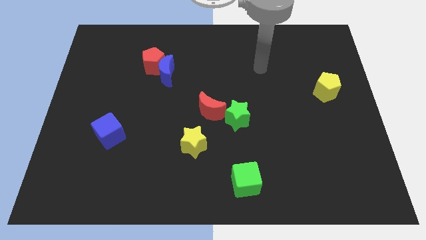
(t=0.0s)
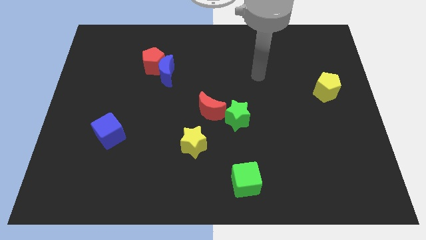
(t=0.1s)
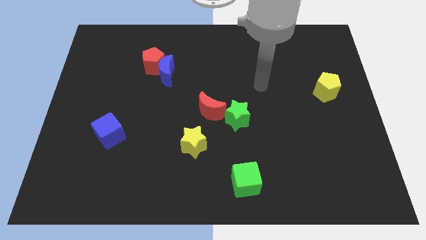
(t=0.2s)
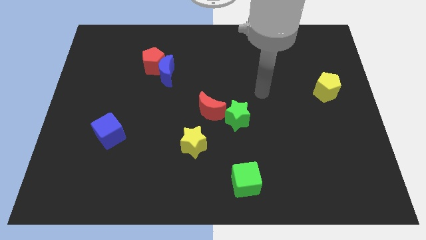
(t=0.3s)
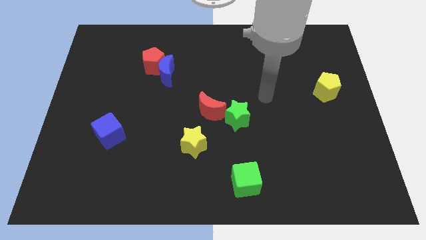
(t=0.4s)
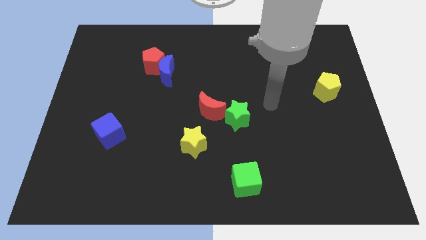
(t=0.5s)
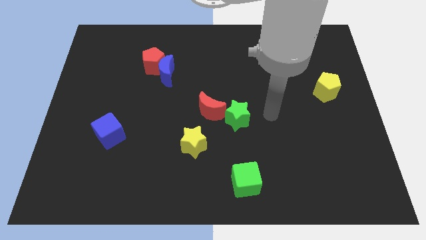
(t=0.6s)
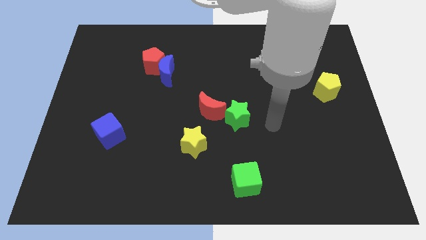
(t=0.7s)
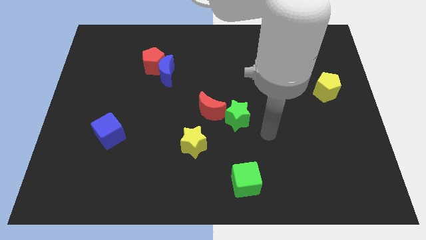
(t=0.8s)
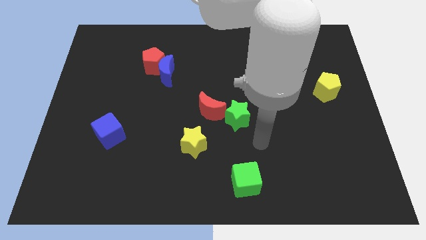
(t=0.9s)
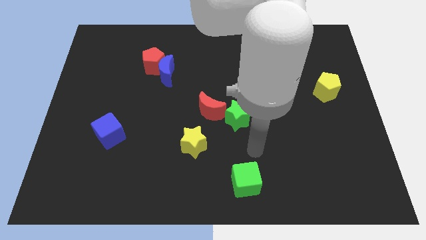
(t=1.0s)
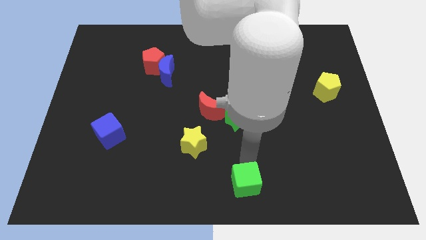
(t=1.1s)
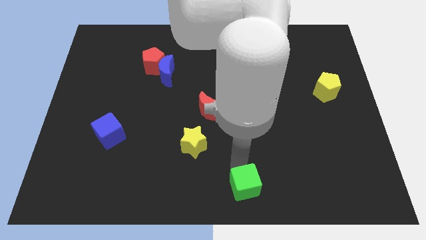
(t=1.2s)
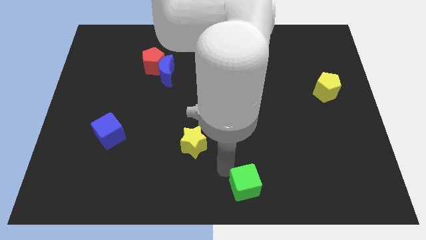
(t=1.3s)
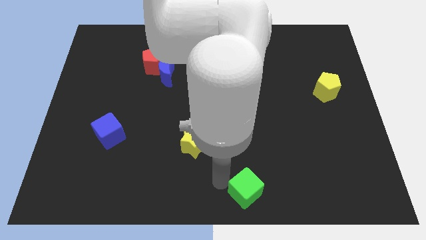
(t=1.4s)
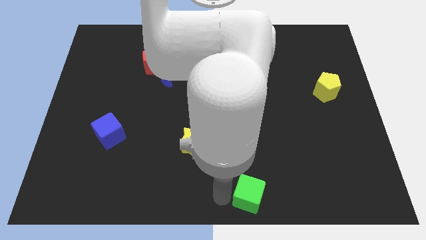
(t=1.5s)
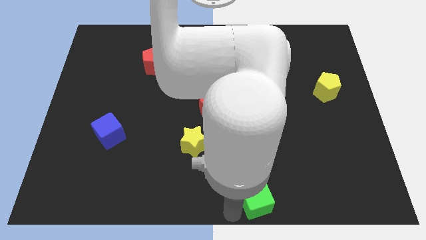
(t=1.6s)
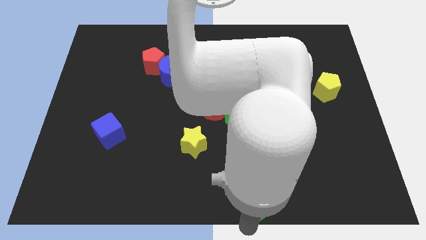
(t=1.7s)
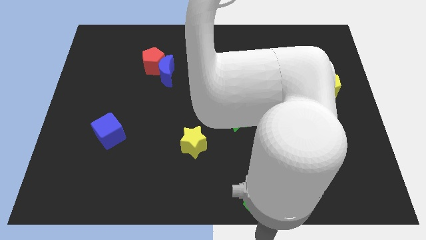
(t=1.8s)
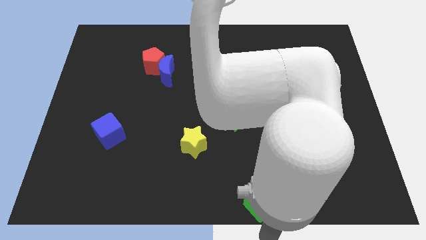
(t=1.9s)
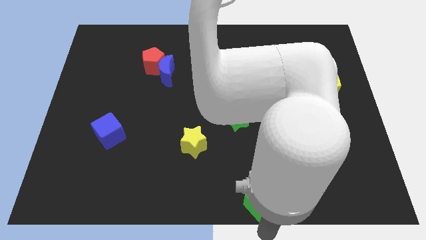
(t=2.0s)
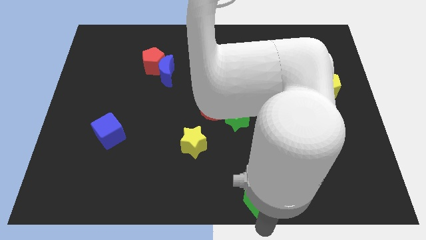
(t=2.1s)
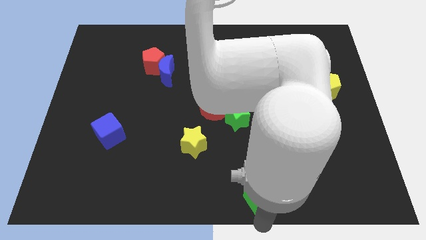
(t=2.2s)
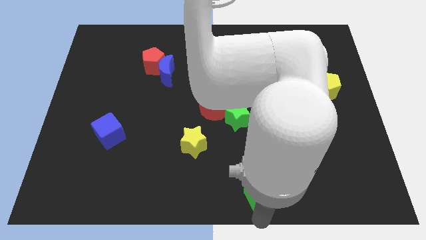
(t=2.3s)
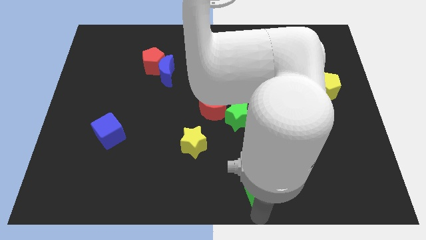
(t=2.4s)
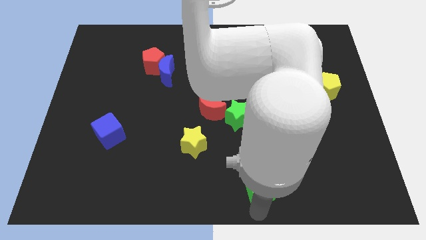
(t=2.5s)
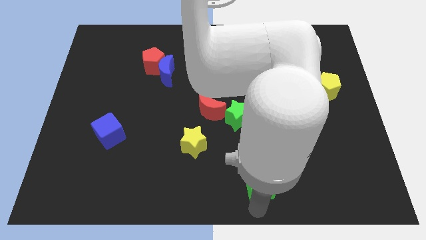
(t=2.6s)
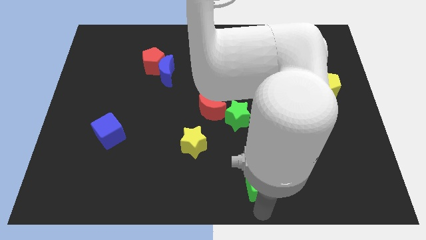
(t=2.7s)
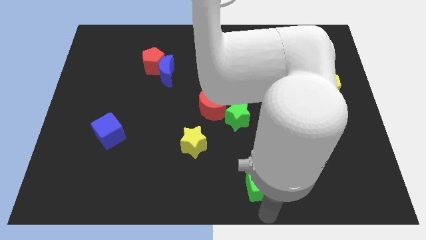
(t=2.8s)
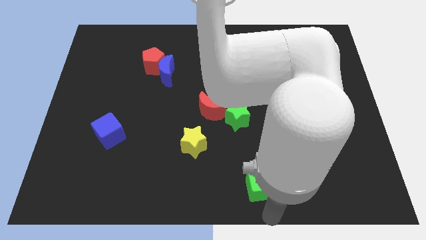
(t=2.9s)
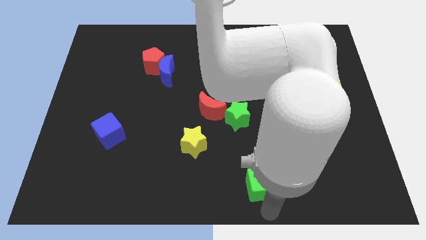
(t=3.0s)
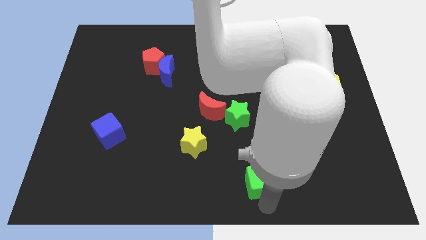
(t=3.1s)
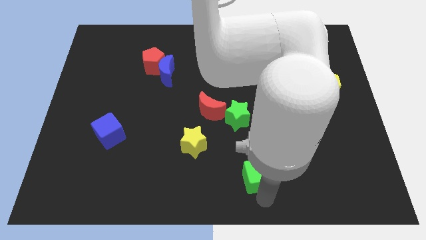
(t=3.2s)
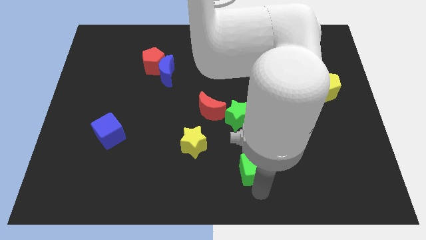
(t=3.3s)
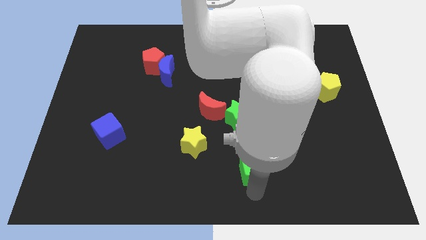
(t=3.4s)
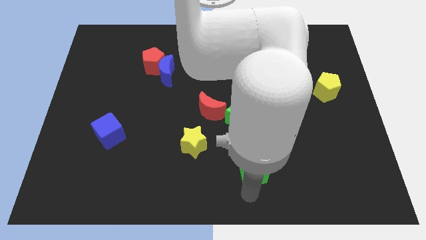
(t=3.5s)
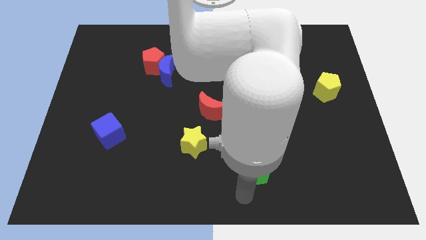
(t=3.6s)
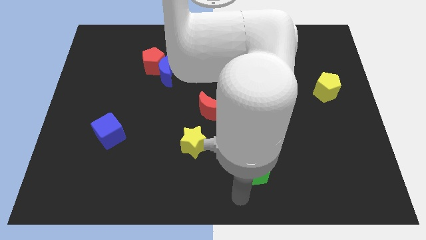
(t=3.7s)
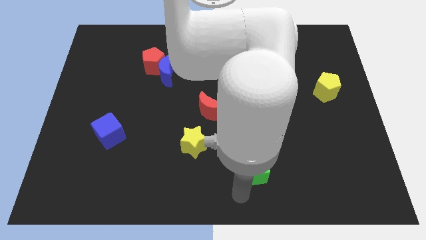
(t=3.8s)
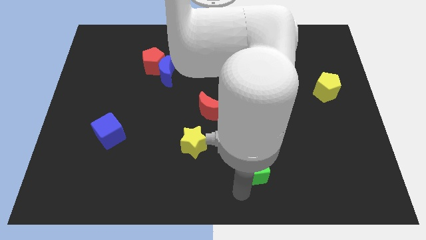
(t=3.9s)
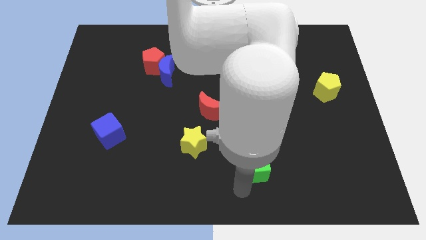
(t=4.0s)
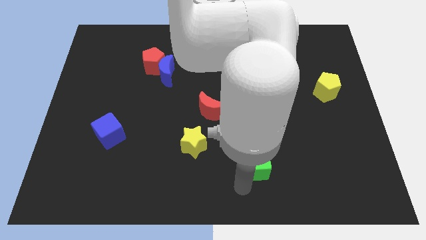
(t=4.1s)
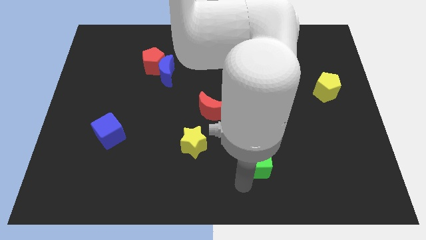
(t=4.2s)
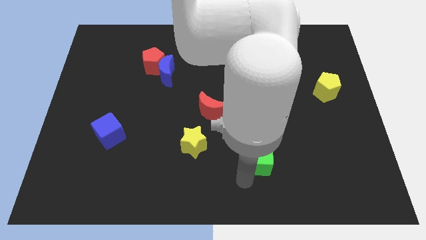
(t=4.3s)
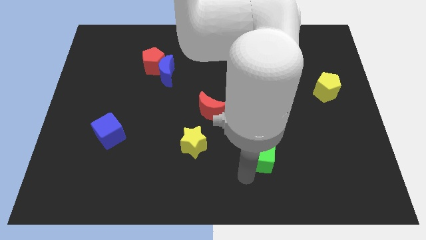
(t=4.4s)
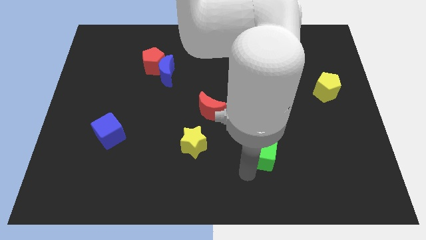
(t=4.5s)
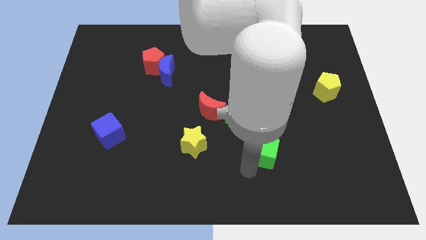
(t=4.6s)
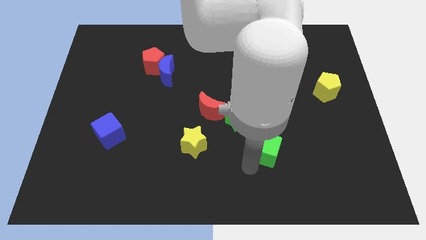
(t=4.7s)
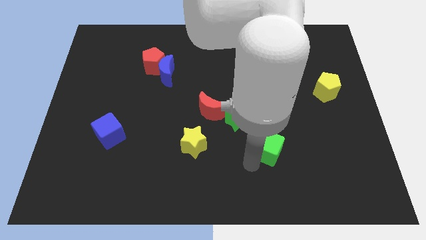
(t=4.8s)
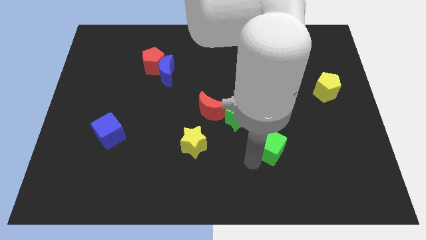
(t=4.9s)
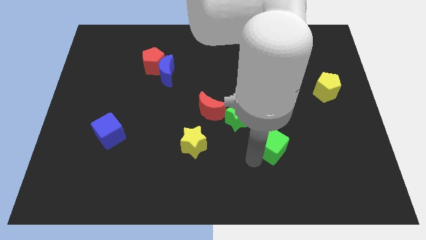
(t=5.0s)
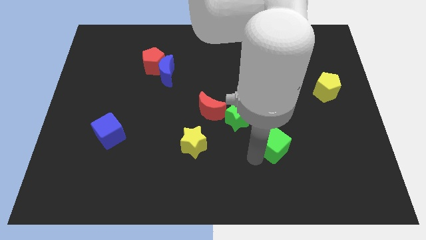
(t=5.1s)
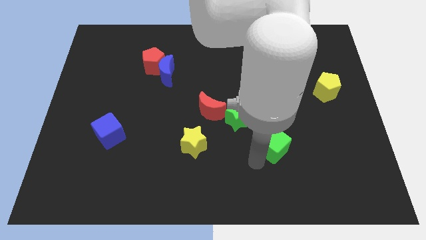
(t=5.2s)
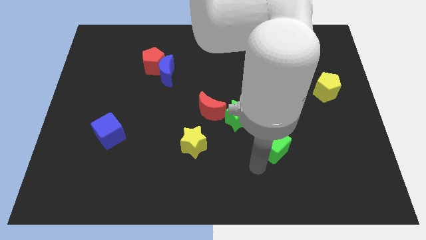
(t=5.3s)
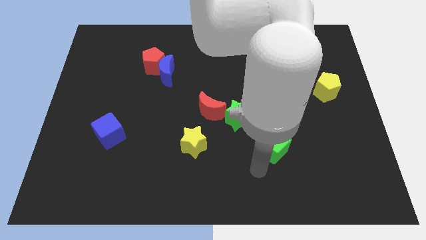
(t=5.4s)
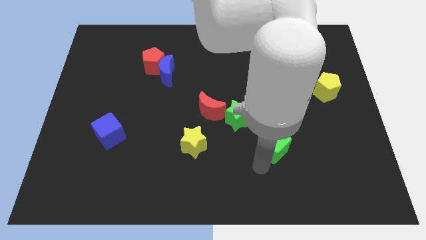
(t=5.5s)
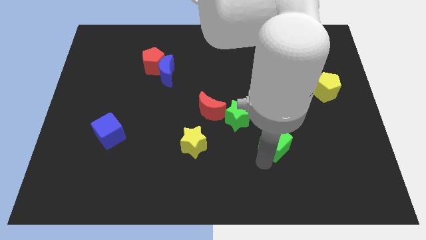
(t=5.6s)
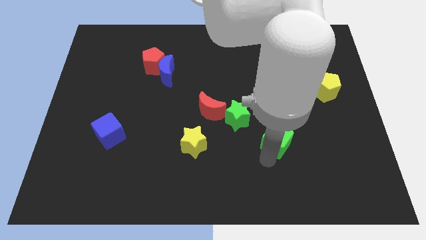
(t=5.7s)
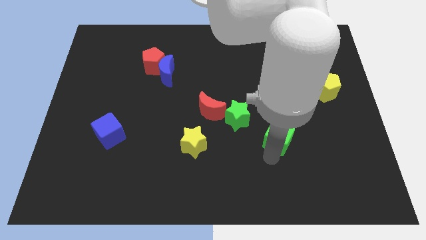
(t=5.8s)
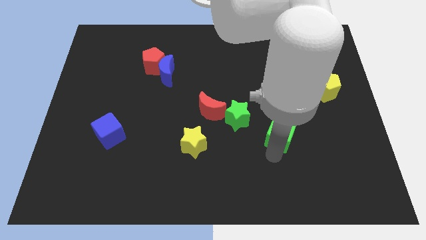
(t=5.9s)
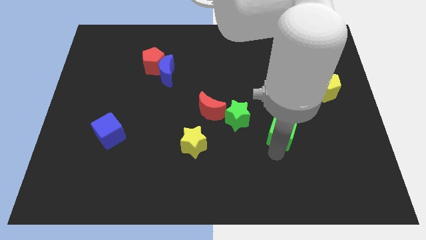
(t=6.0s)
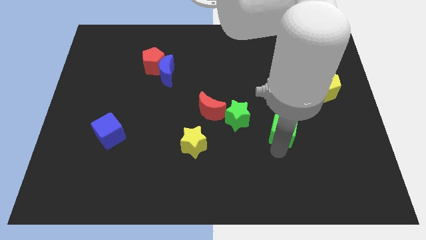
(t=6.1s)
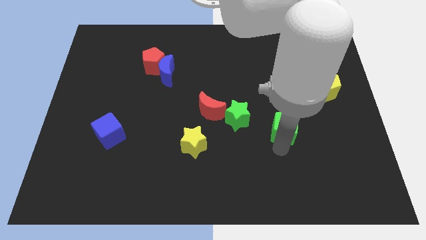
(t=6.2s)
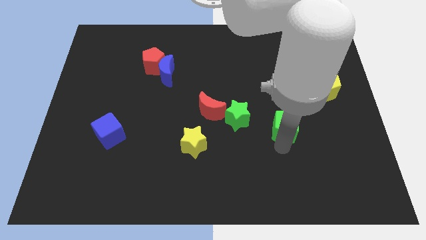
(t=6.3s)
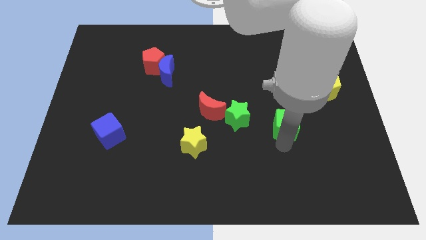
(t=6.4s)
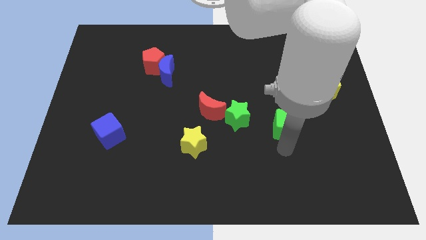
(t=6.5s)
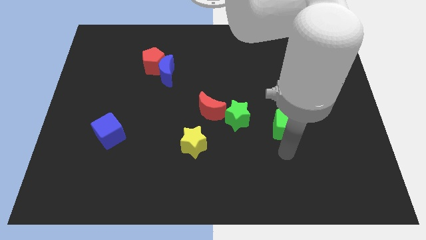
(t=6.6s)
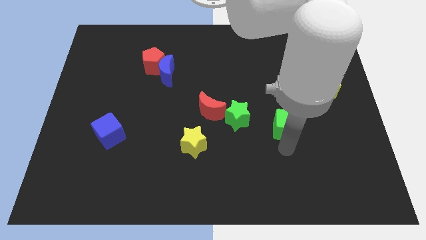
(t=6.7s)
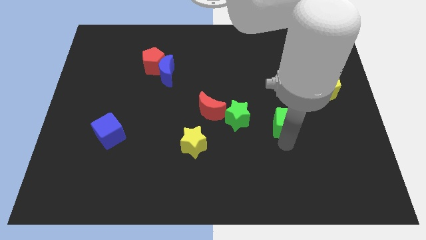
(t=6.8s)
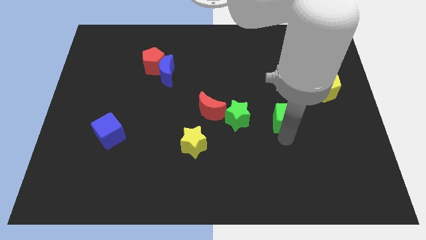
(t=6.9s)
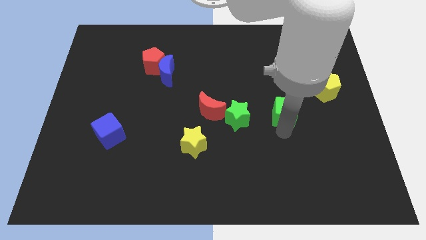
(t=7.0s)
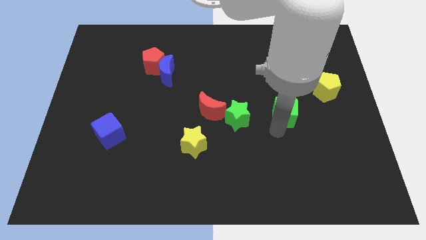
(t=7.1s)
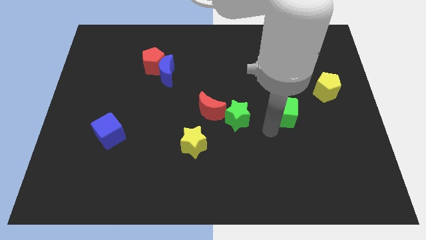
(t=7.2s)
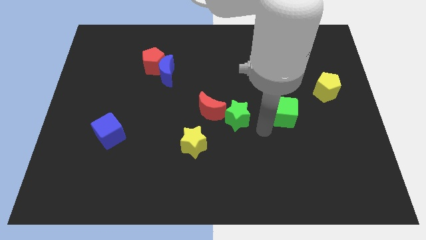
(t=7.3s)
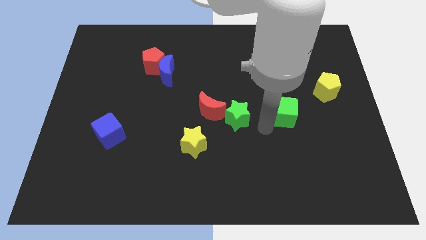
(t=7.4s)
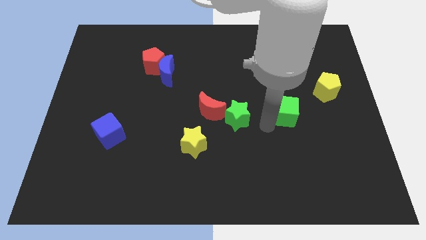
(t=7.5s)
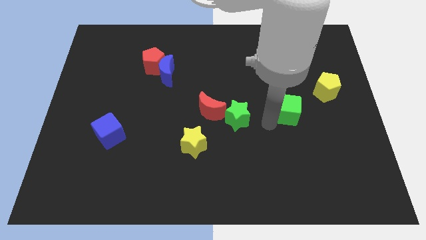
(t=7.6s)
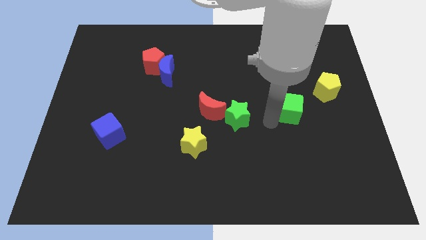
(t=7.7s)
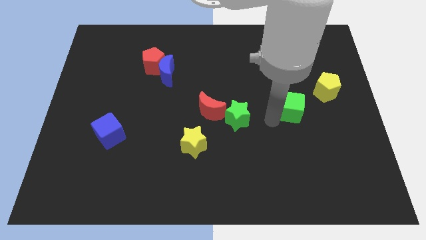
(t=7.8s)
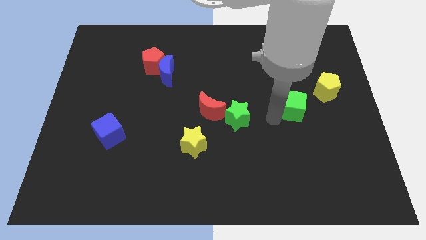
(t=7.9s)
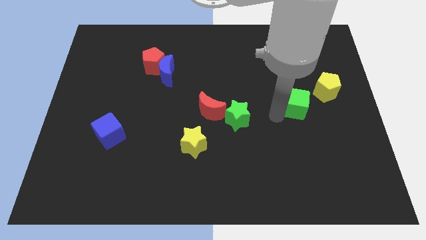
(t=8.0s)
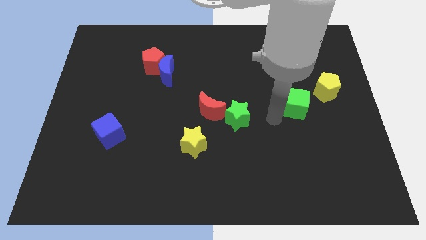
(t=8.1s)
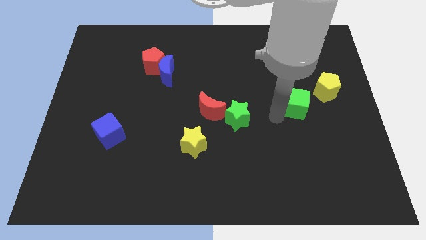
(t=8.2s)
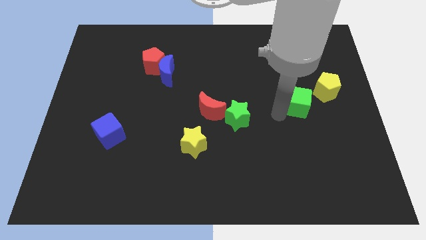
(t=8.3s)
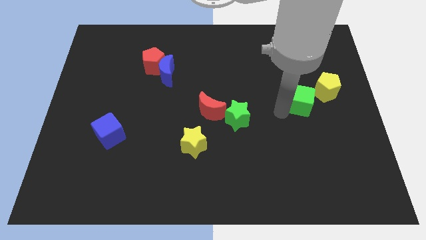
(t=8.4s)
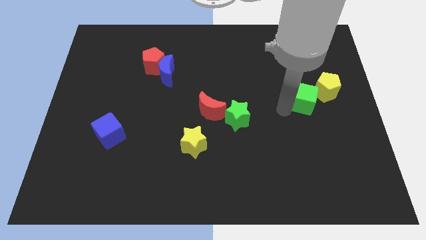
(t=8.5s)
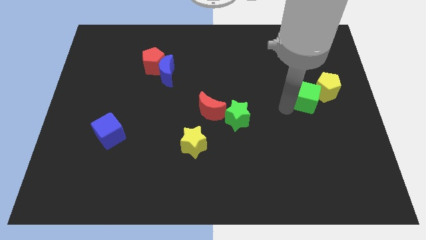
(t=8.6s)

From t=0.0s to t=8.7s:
put the green cube close to the yellow pentagon
